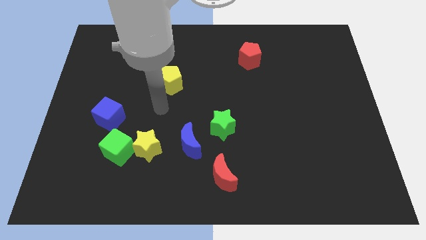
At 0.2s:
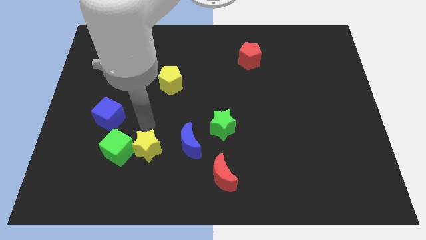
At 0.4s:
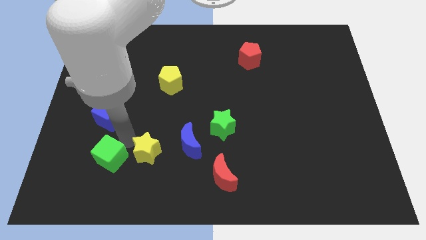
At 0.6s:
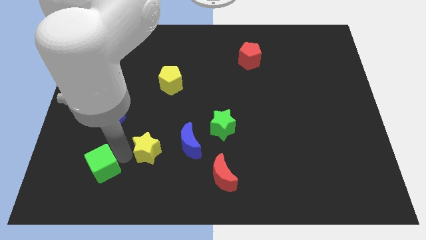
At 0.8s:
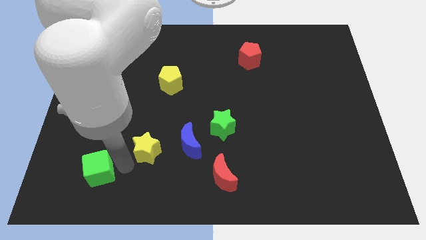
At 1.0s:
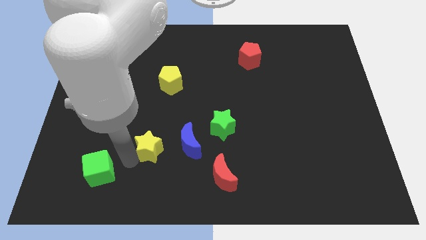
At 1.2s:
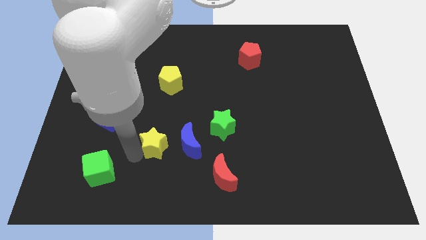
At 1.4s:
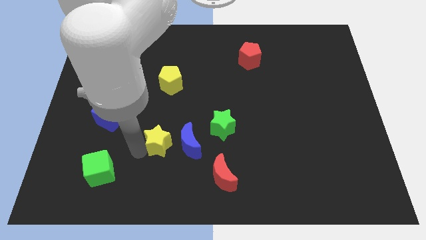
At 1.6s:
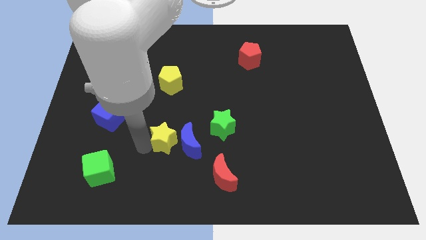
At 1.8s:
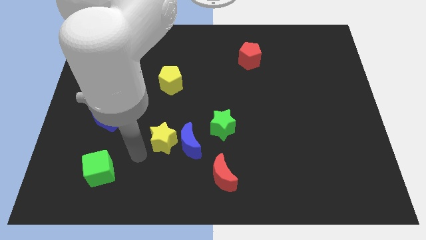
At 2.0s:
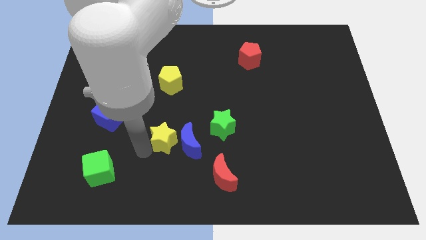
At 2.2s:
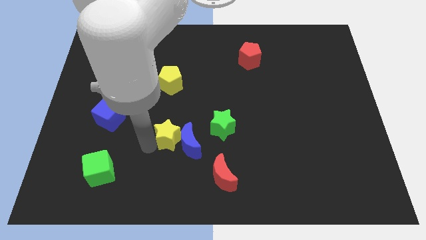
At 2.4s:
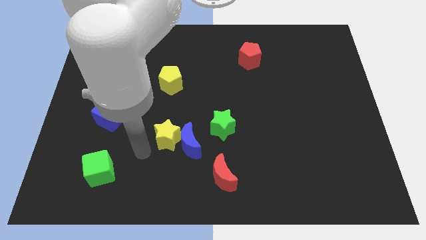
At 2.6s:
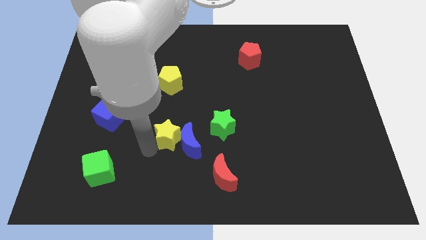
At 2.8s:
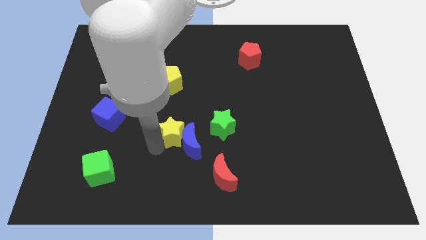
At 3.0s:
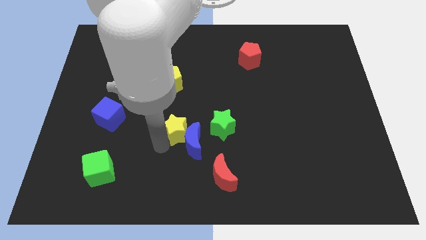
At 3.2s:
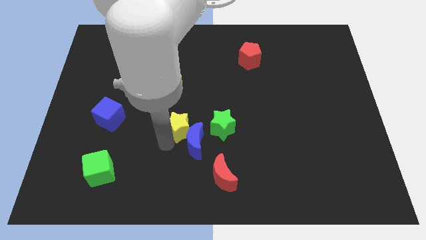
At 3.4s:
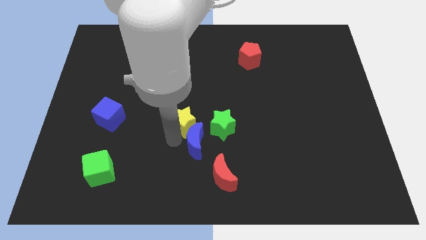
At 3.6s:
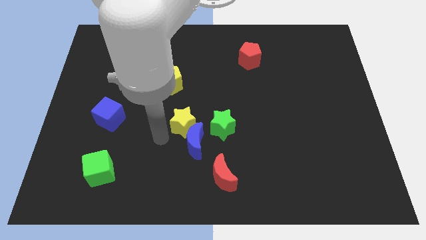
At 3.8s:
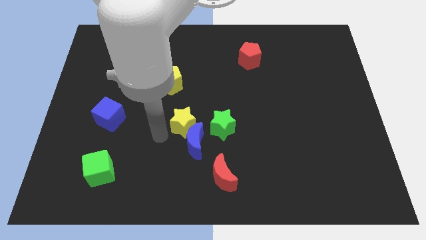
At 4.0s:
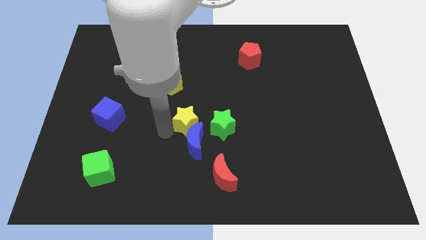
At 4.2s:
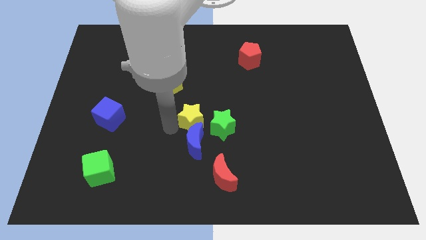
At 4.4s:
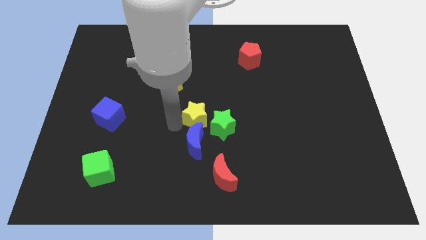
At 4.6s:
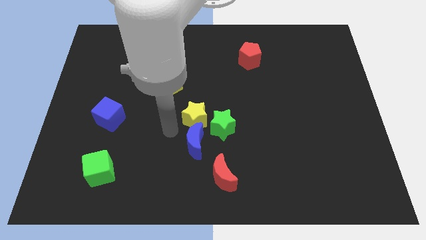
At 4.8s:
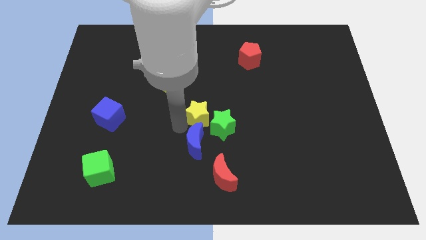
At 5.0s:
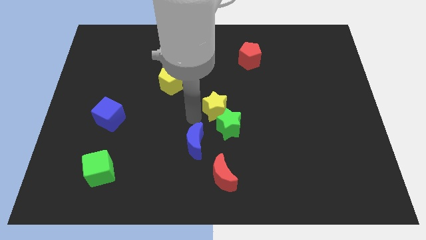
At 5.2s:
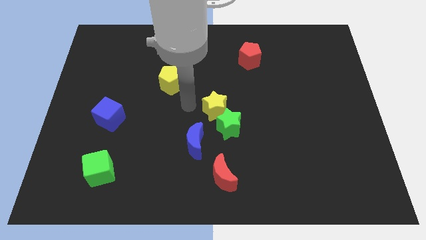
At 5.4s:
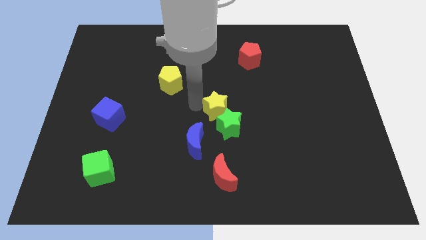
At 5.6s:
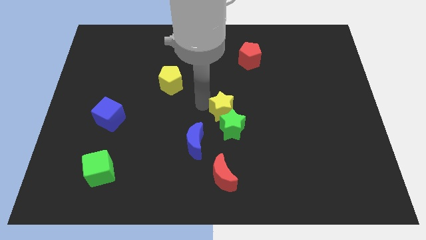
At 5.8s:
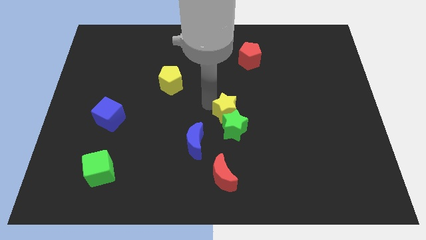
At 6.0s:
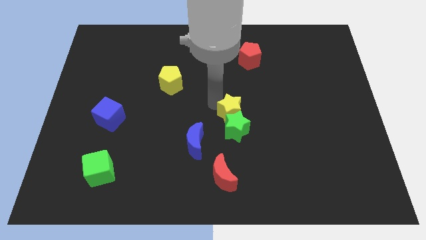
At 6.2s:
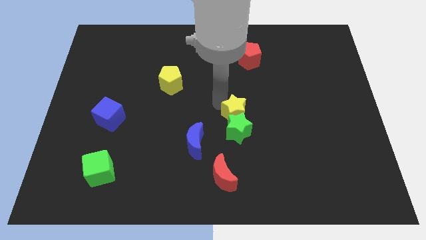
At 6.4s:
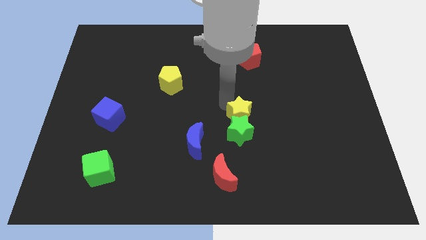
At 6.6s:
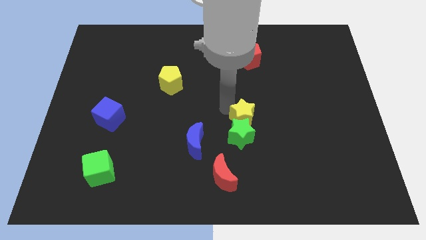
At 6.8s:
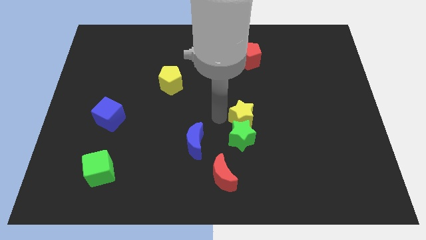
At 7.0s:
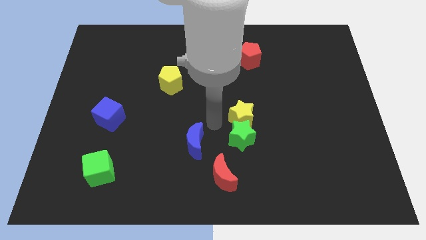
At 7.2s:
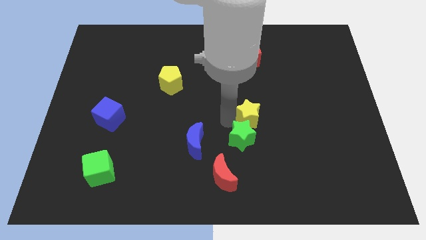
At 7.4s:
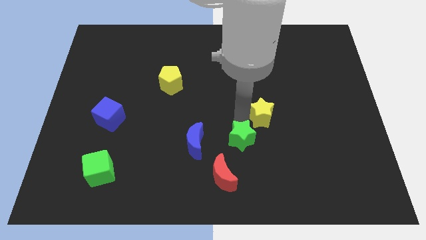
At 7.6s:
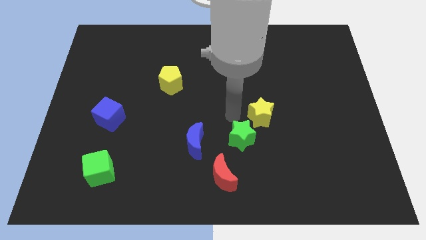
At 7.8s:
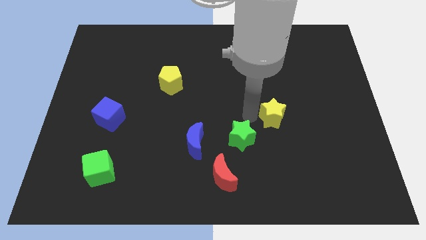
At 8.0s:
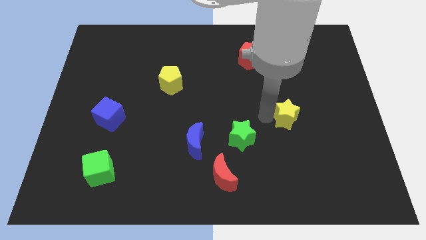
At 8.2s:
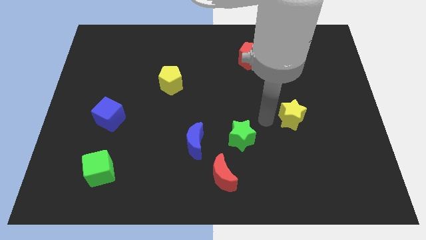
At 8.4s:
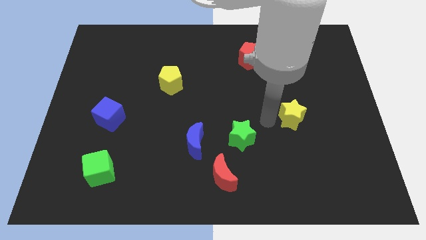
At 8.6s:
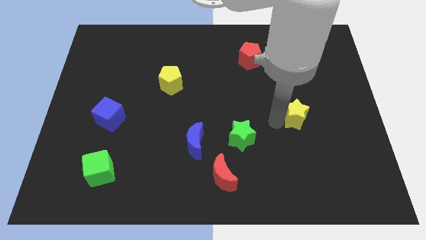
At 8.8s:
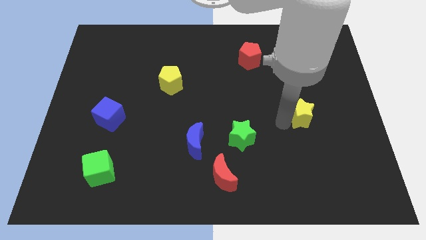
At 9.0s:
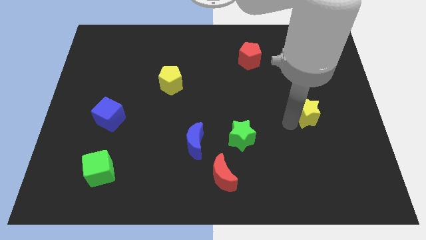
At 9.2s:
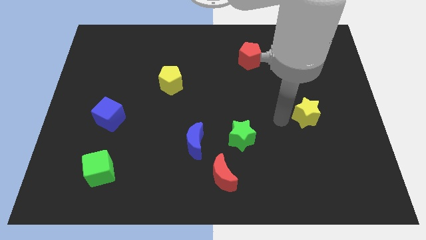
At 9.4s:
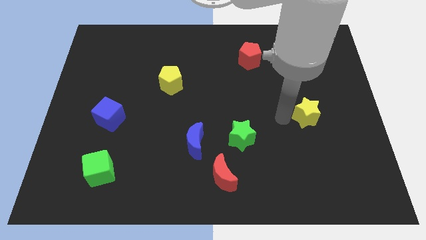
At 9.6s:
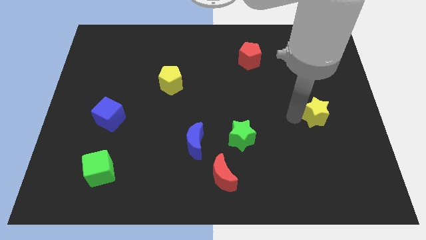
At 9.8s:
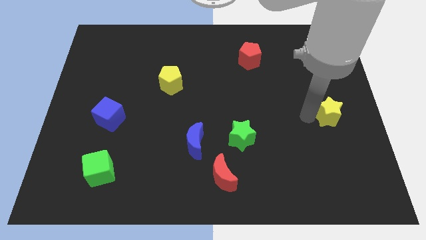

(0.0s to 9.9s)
push the yellow star to the right side
